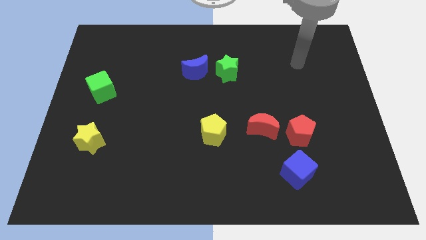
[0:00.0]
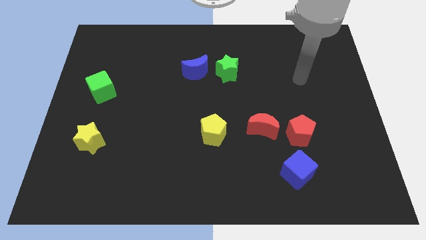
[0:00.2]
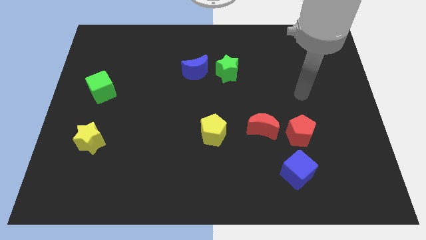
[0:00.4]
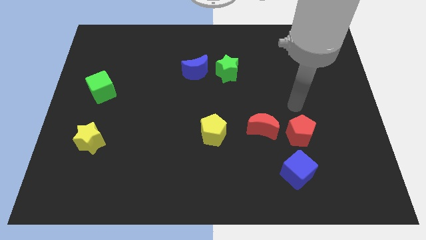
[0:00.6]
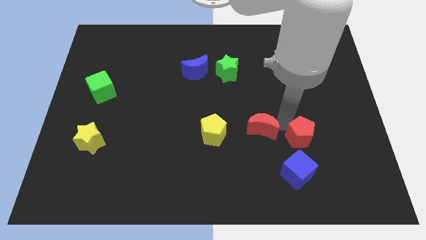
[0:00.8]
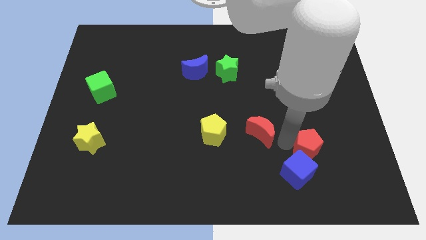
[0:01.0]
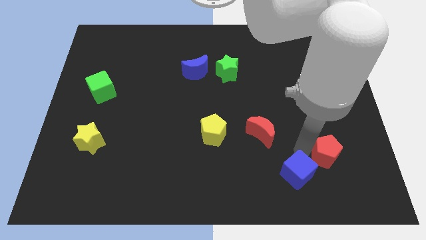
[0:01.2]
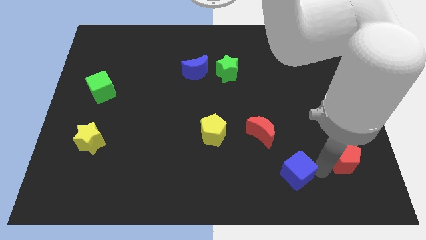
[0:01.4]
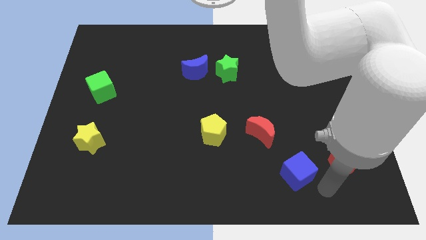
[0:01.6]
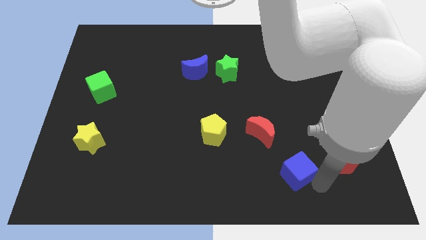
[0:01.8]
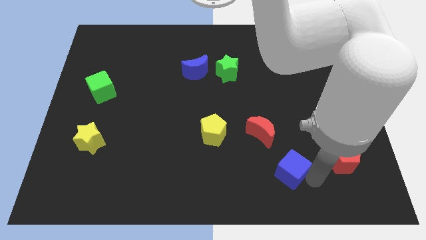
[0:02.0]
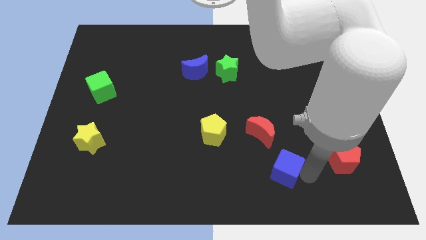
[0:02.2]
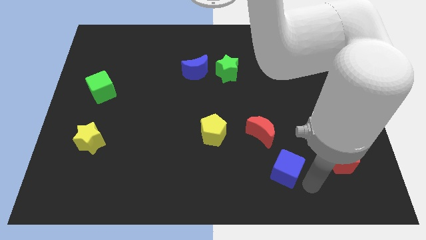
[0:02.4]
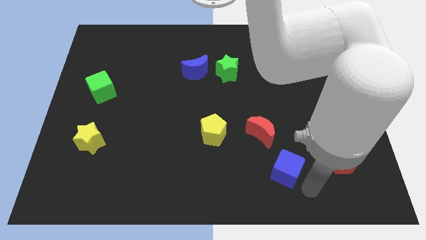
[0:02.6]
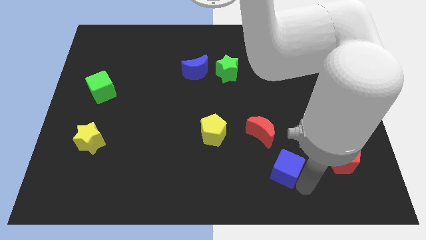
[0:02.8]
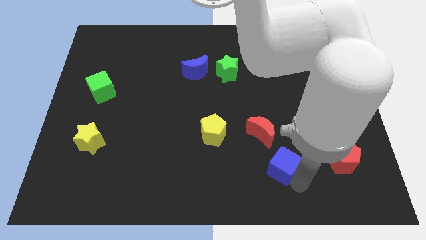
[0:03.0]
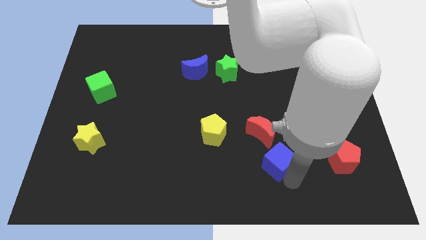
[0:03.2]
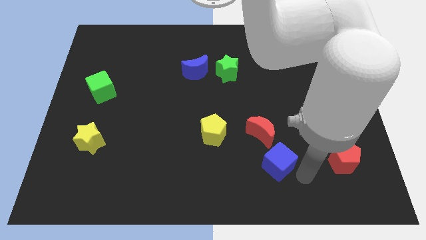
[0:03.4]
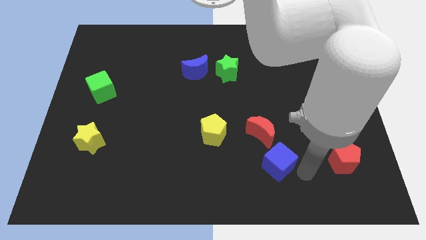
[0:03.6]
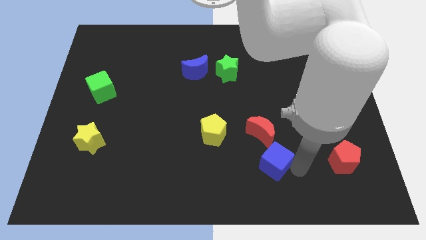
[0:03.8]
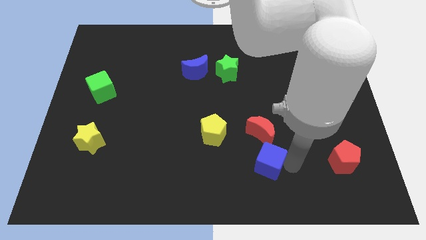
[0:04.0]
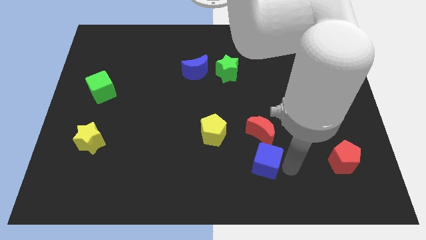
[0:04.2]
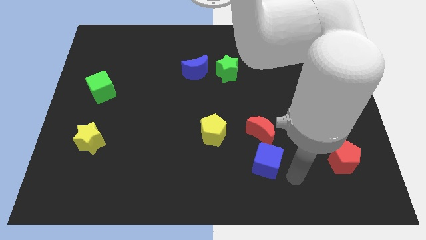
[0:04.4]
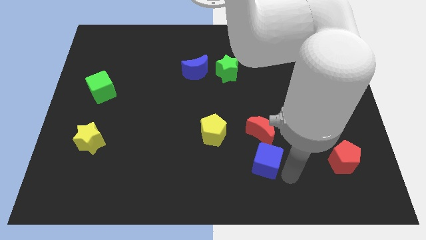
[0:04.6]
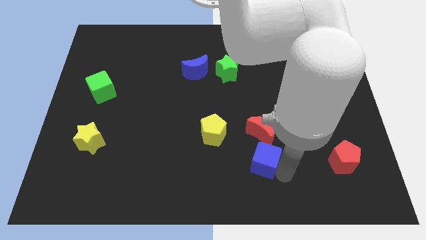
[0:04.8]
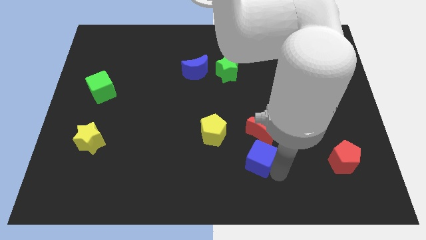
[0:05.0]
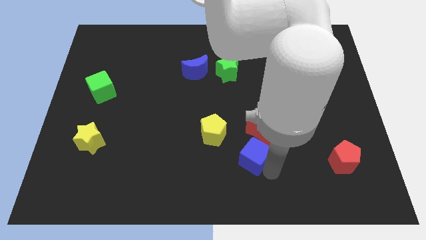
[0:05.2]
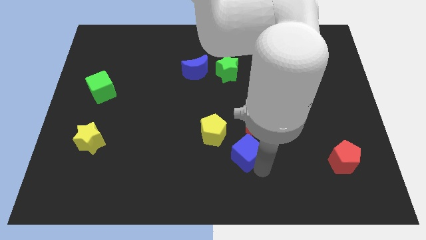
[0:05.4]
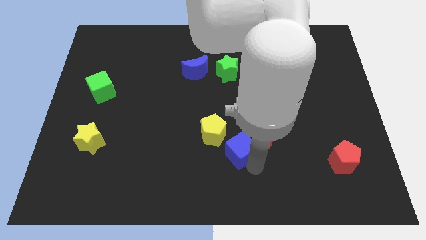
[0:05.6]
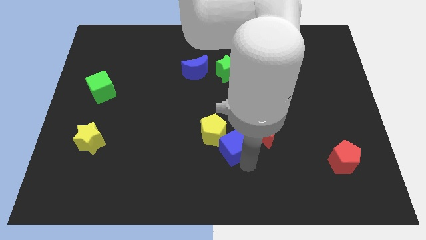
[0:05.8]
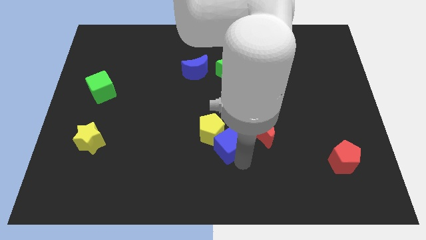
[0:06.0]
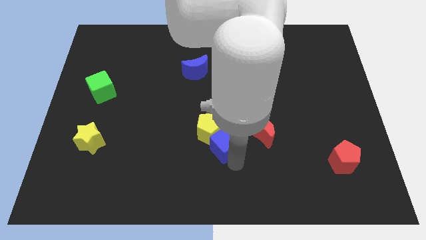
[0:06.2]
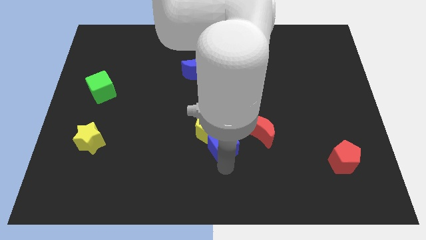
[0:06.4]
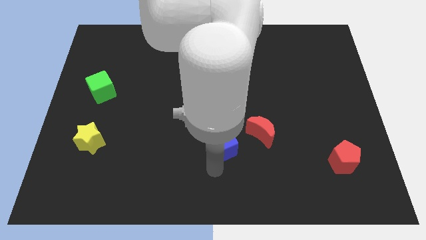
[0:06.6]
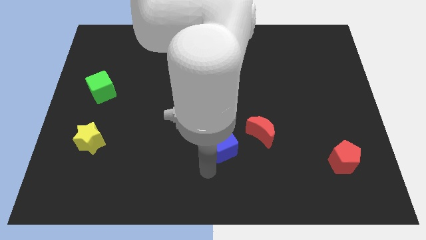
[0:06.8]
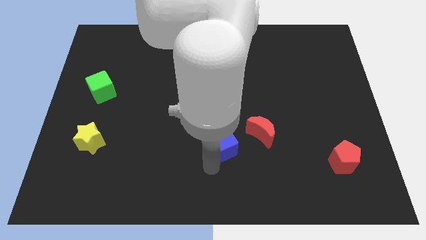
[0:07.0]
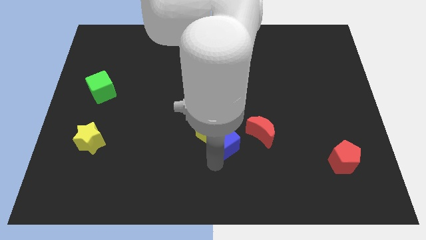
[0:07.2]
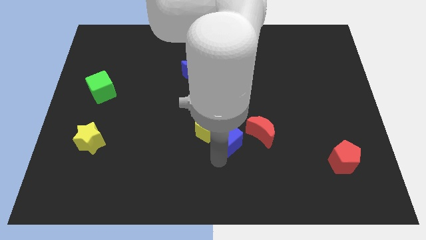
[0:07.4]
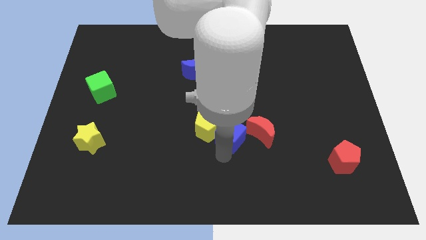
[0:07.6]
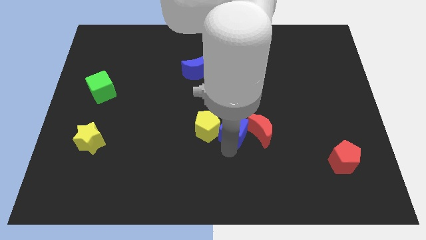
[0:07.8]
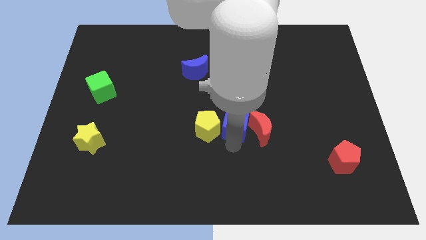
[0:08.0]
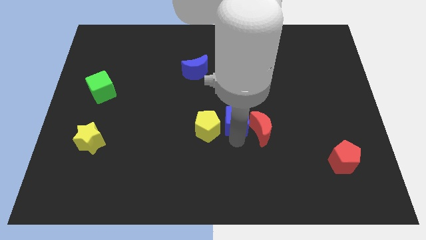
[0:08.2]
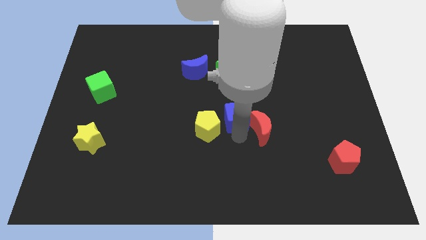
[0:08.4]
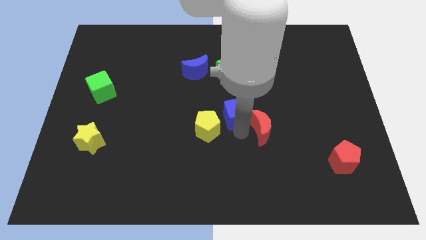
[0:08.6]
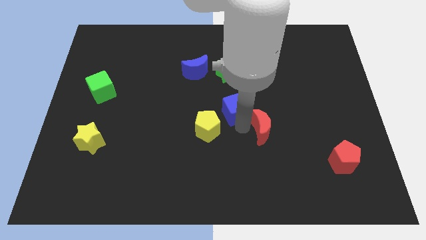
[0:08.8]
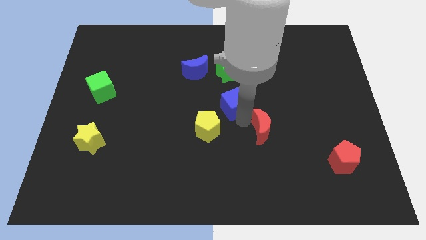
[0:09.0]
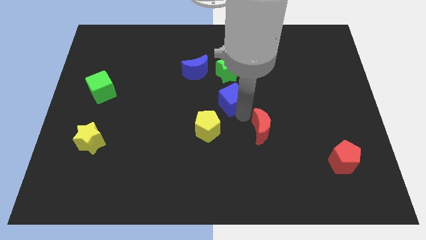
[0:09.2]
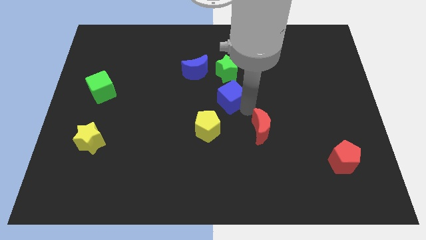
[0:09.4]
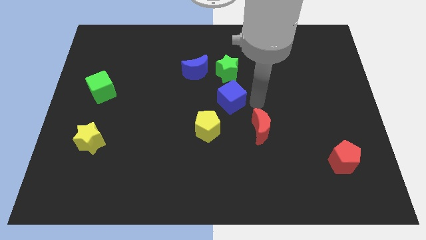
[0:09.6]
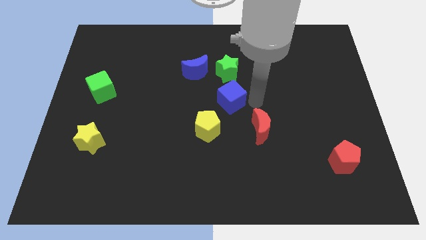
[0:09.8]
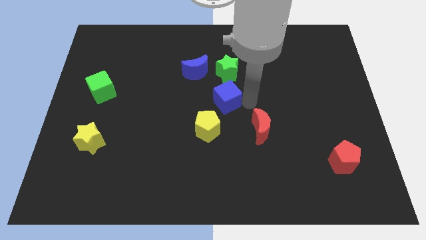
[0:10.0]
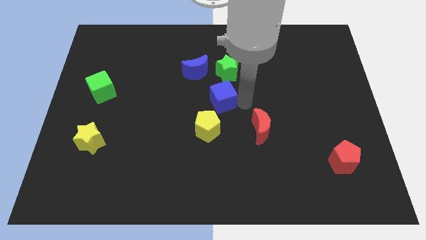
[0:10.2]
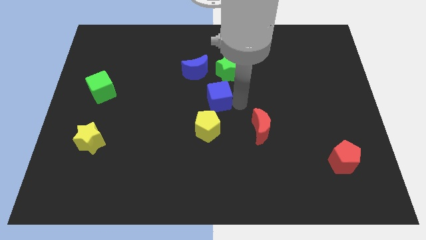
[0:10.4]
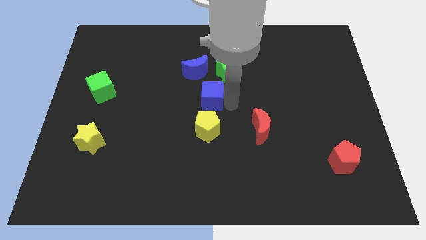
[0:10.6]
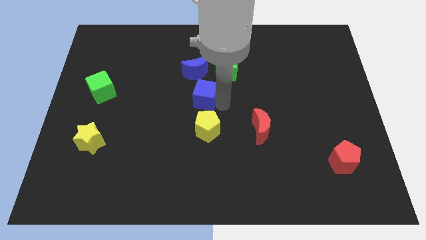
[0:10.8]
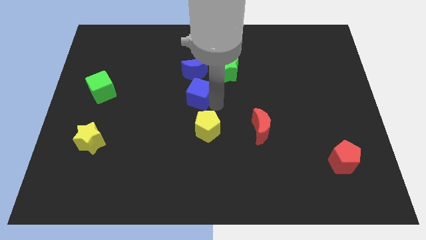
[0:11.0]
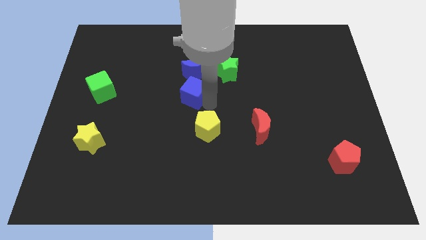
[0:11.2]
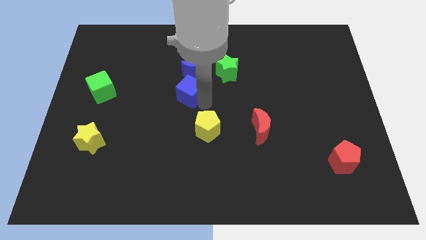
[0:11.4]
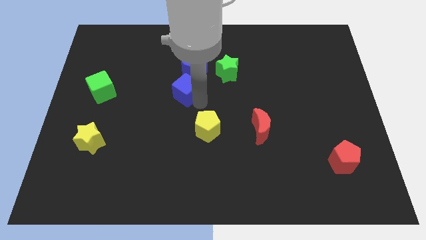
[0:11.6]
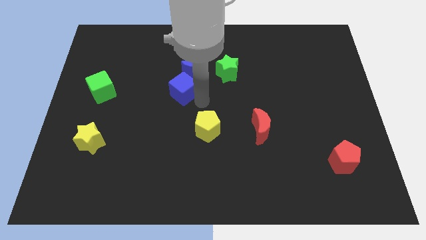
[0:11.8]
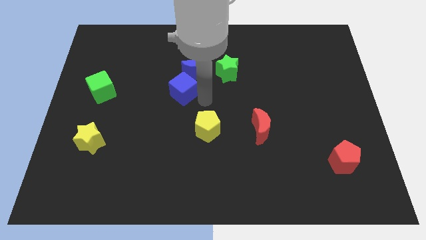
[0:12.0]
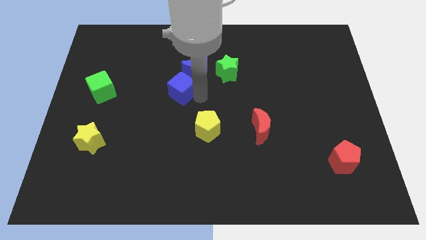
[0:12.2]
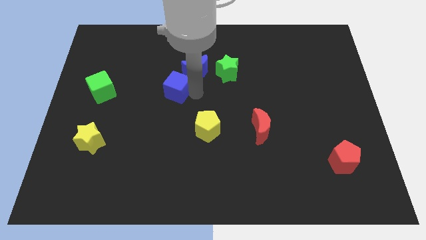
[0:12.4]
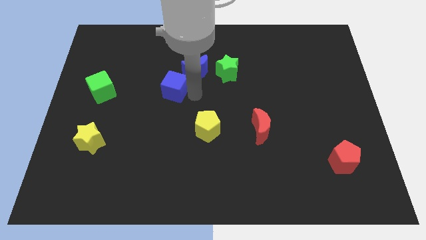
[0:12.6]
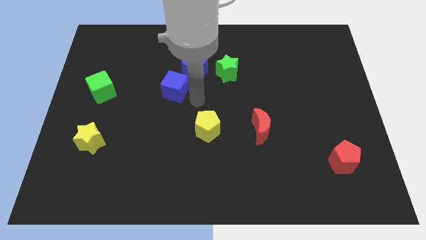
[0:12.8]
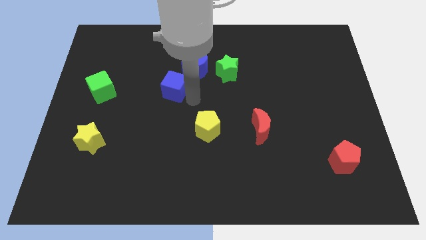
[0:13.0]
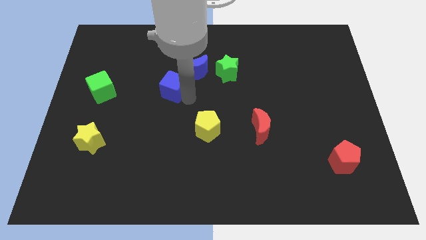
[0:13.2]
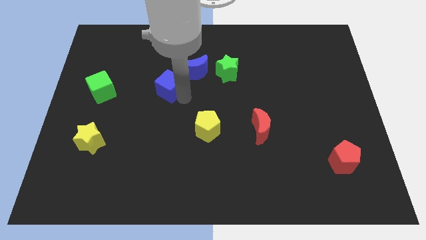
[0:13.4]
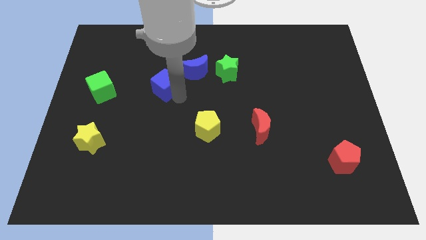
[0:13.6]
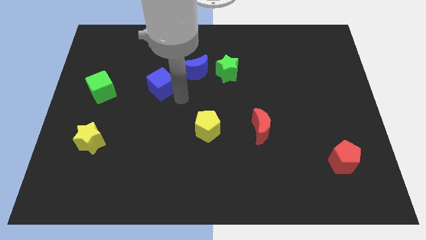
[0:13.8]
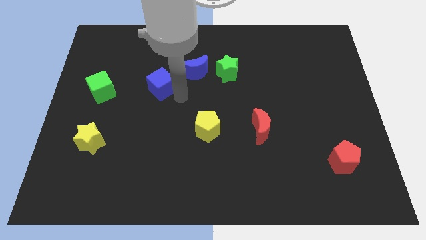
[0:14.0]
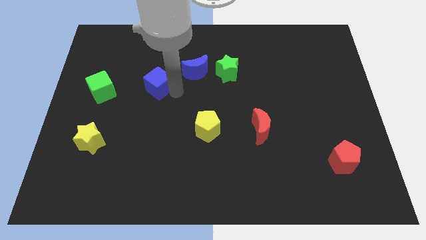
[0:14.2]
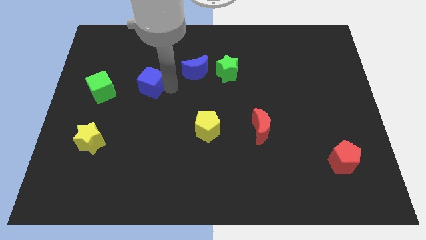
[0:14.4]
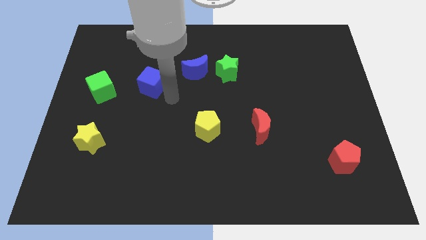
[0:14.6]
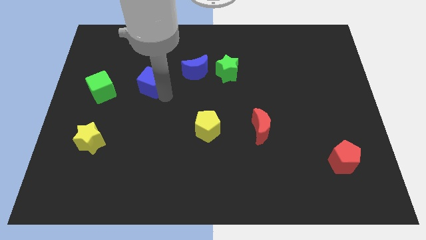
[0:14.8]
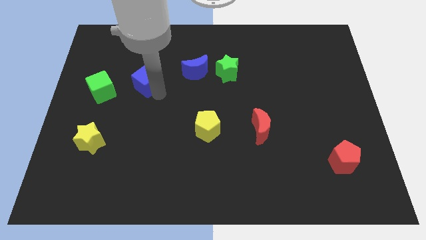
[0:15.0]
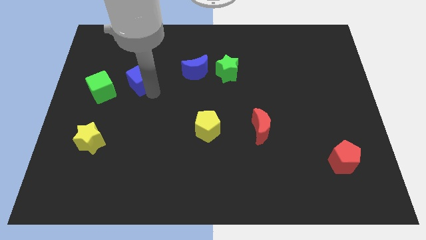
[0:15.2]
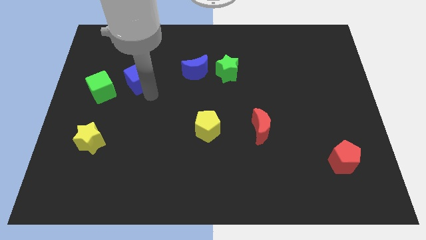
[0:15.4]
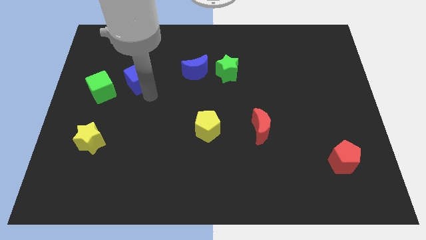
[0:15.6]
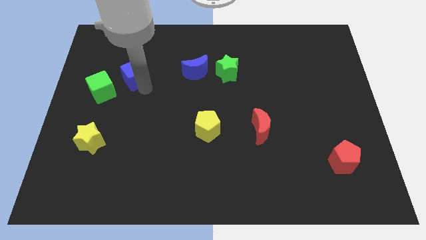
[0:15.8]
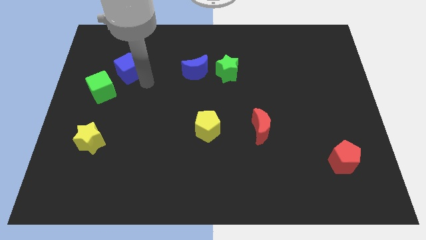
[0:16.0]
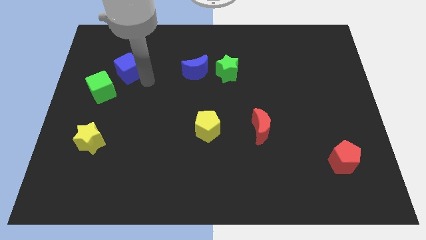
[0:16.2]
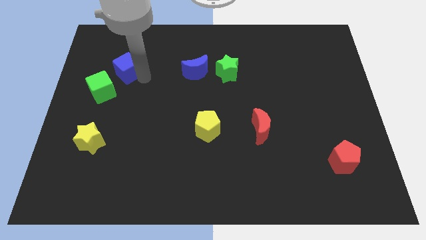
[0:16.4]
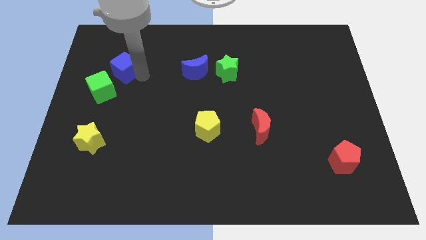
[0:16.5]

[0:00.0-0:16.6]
move the blue cube to the top of the green cube
